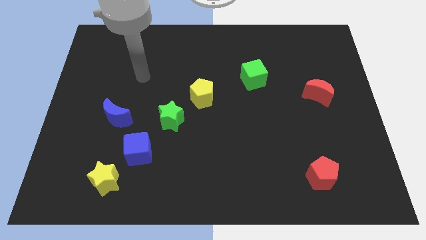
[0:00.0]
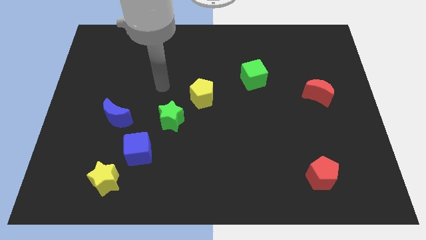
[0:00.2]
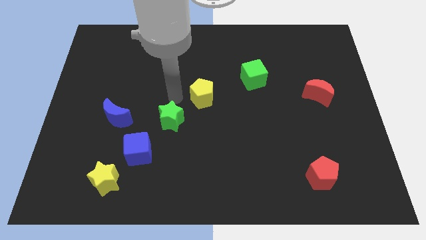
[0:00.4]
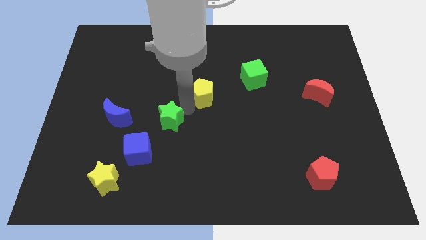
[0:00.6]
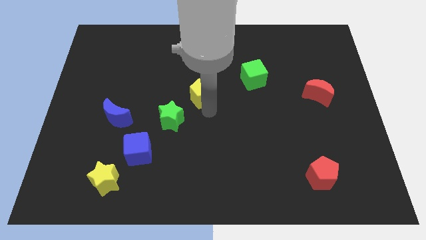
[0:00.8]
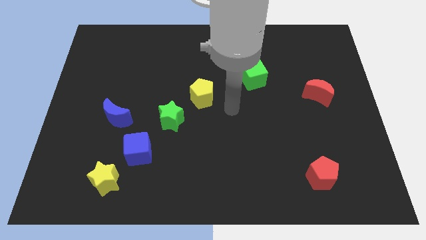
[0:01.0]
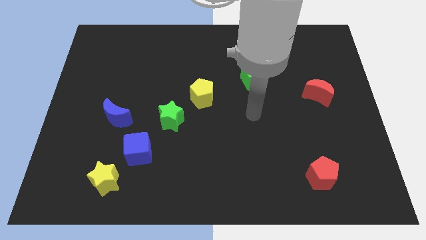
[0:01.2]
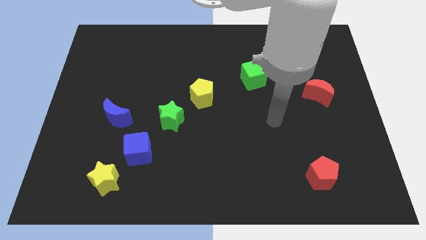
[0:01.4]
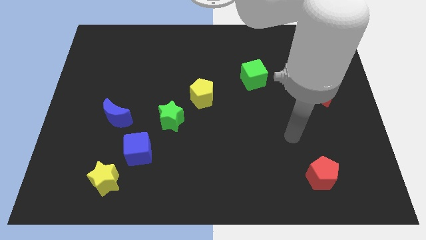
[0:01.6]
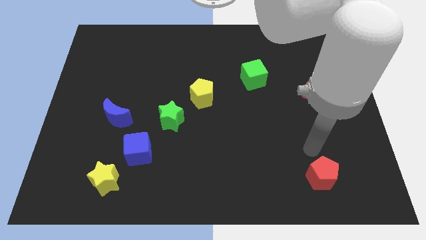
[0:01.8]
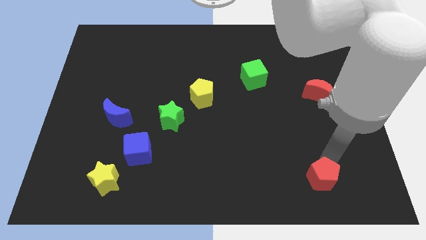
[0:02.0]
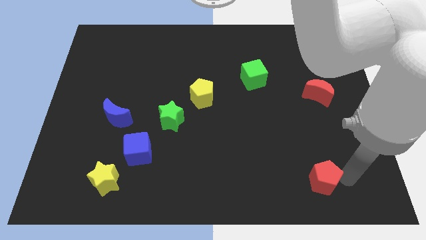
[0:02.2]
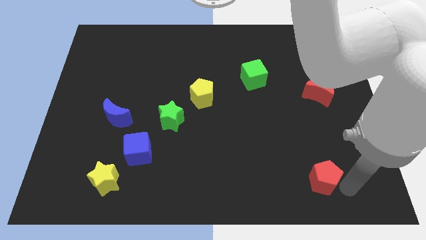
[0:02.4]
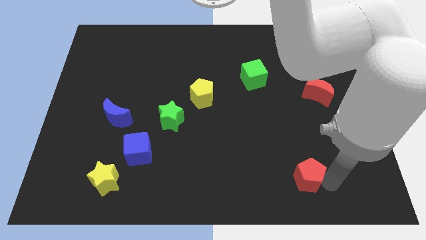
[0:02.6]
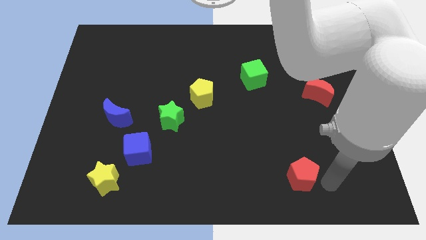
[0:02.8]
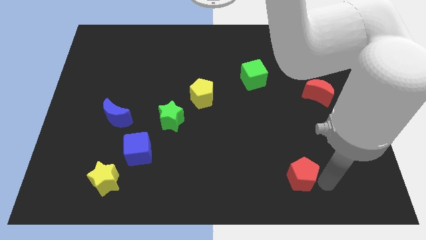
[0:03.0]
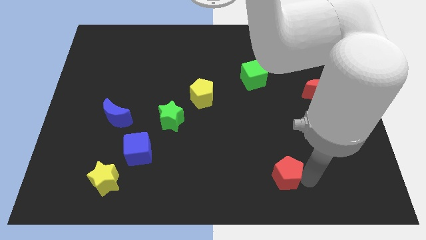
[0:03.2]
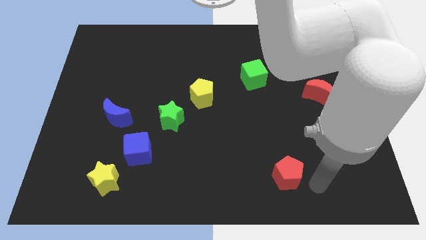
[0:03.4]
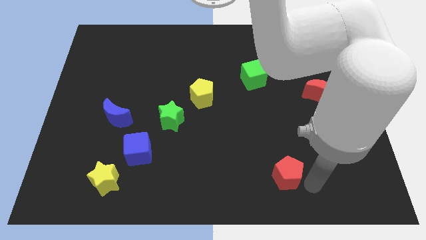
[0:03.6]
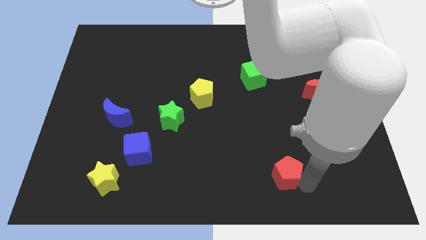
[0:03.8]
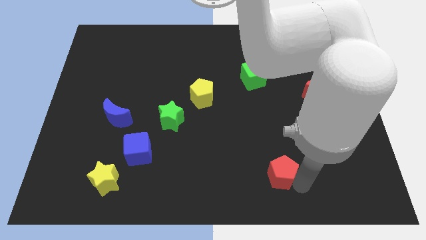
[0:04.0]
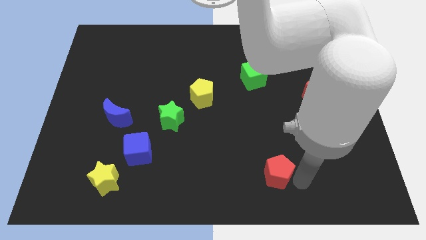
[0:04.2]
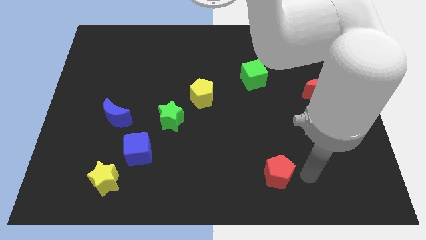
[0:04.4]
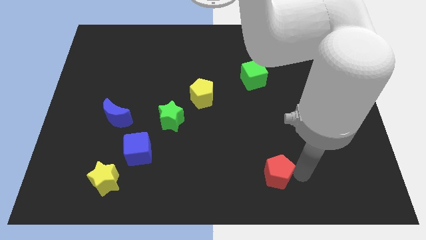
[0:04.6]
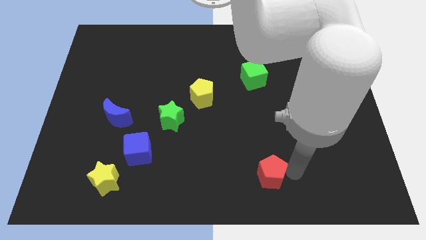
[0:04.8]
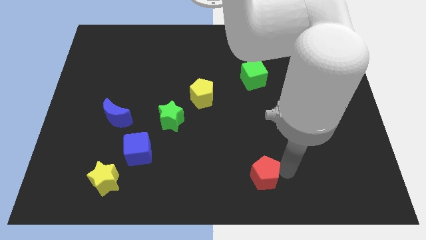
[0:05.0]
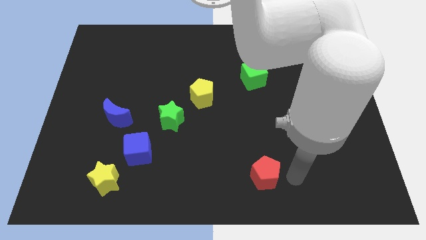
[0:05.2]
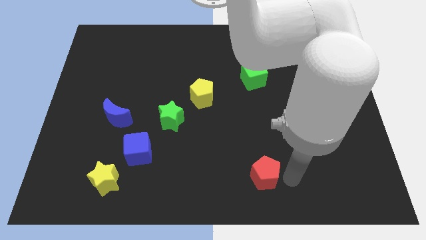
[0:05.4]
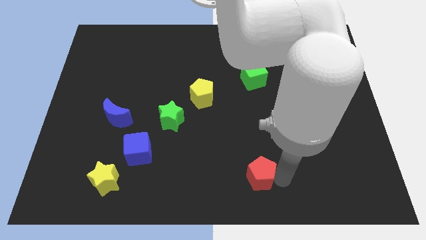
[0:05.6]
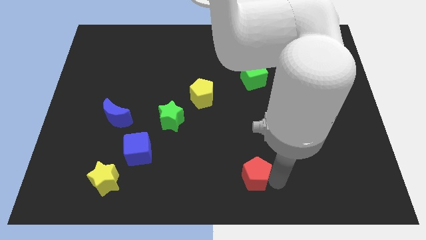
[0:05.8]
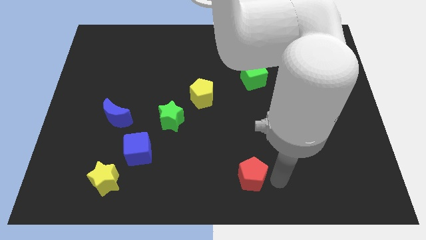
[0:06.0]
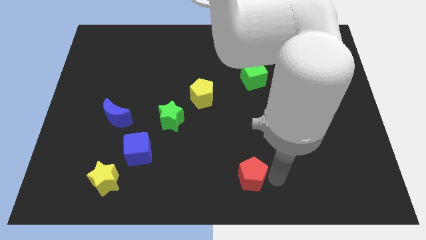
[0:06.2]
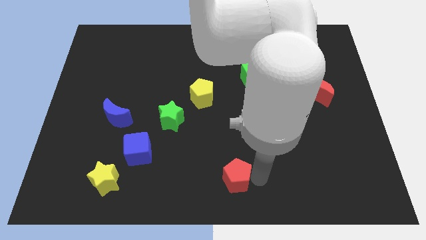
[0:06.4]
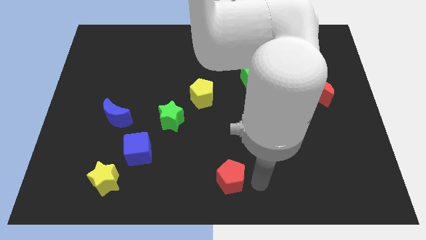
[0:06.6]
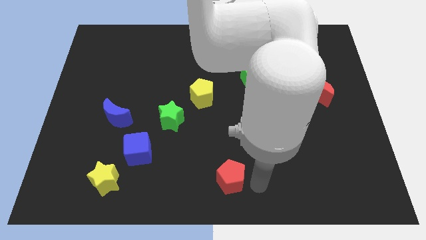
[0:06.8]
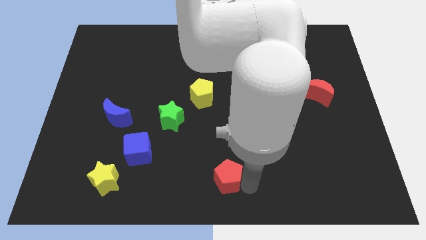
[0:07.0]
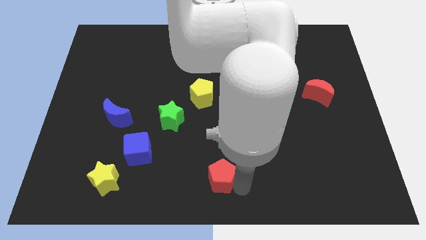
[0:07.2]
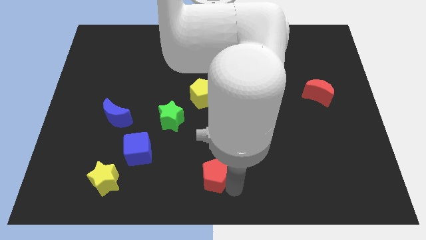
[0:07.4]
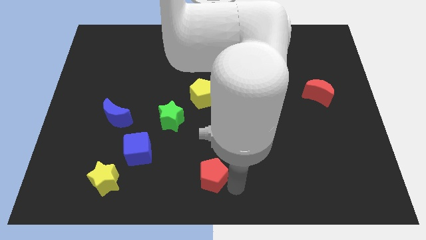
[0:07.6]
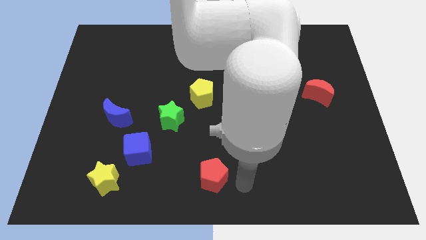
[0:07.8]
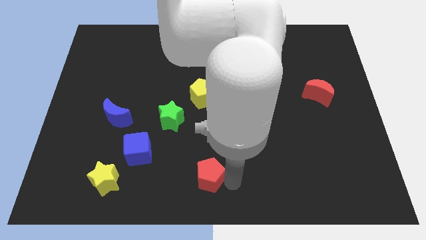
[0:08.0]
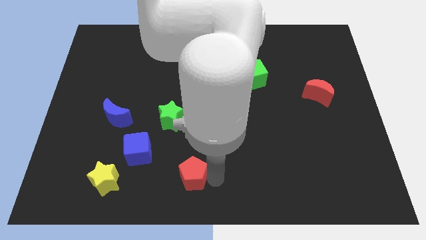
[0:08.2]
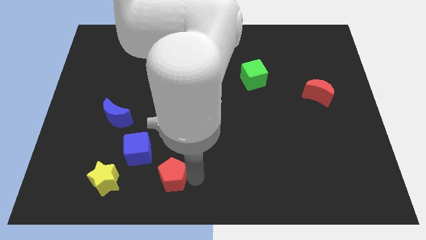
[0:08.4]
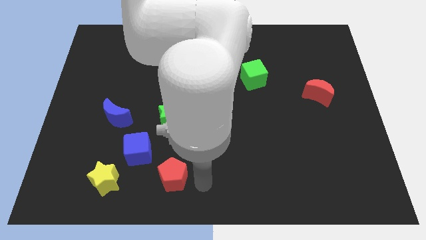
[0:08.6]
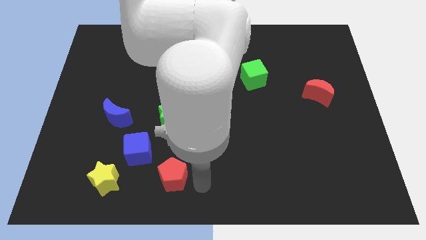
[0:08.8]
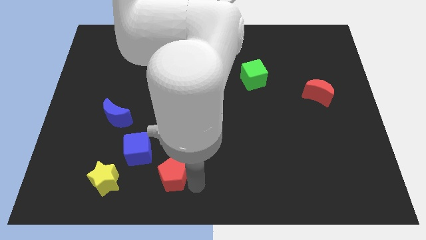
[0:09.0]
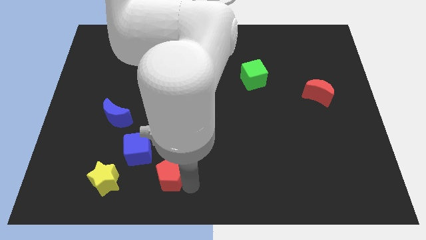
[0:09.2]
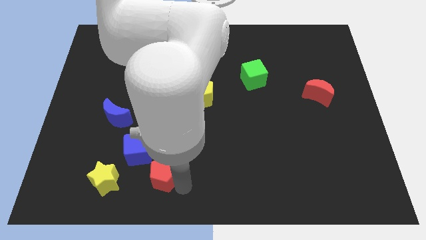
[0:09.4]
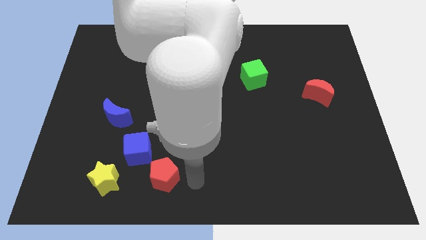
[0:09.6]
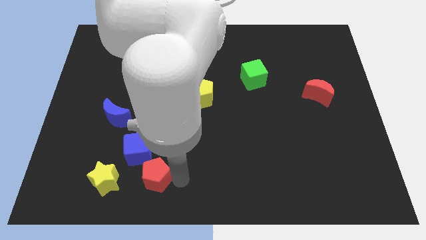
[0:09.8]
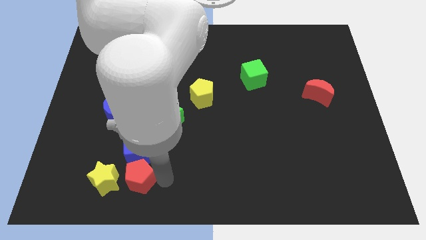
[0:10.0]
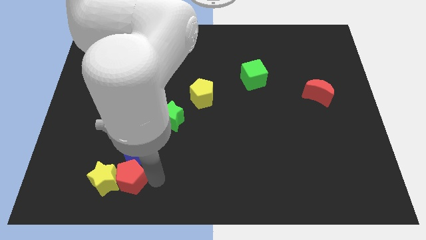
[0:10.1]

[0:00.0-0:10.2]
put the red pentagon towards the yellow star

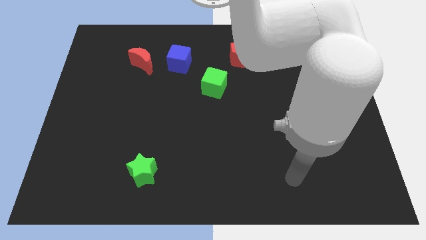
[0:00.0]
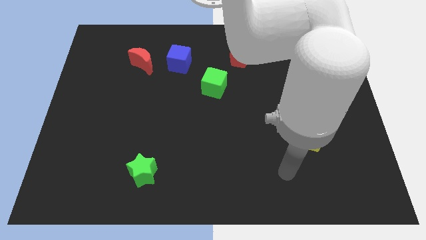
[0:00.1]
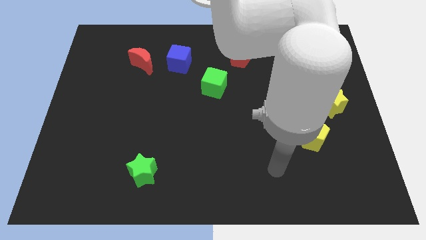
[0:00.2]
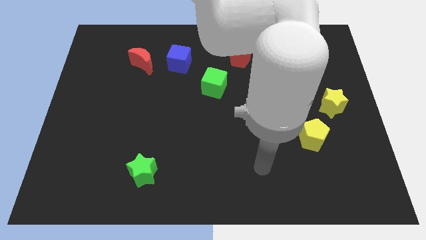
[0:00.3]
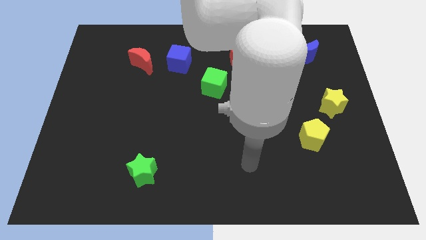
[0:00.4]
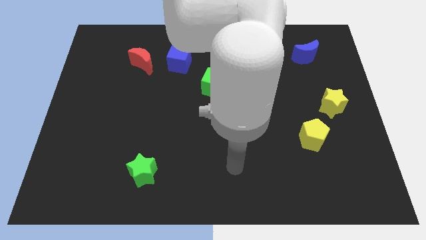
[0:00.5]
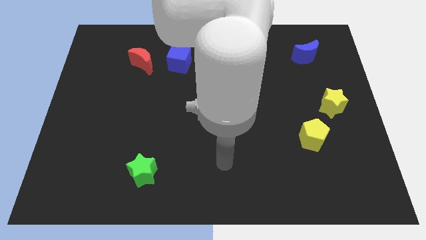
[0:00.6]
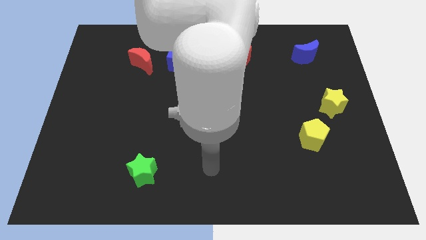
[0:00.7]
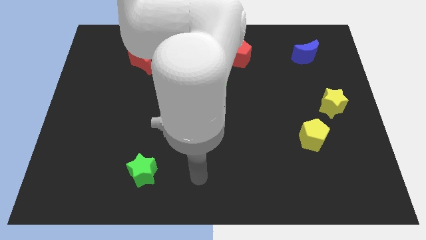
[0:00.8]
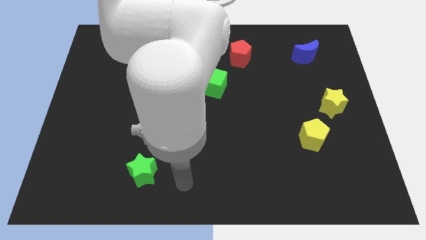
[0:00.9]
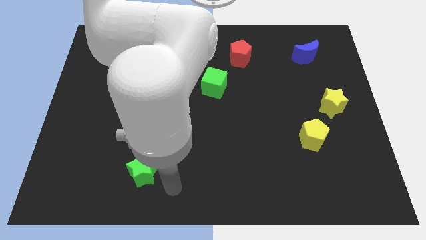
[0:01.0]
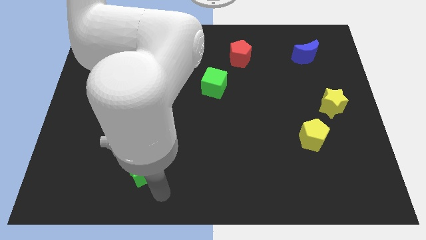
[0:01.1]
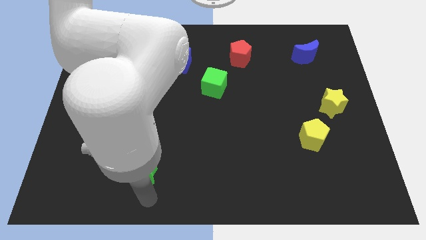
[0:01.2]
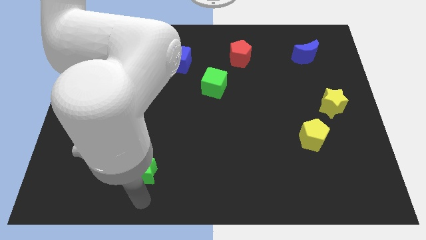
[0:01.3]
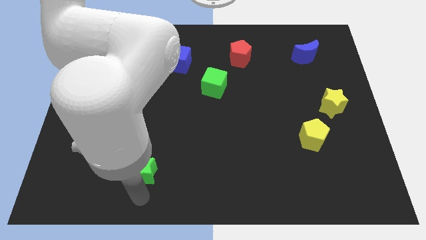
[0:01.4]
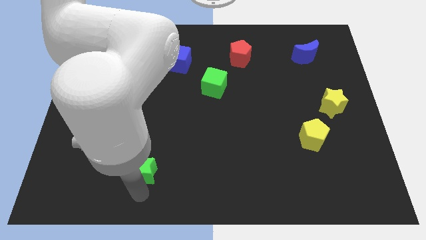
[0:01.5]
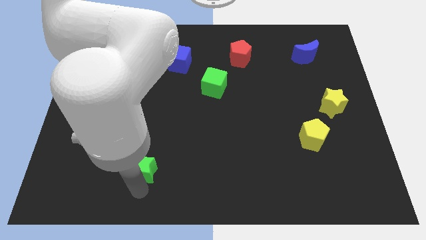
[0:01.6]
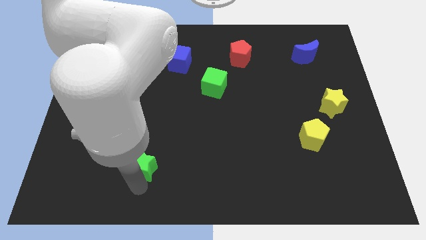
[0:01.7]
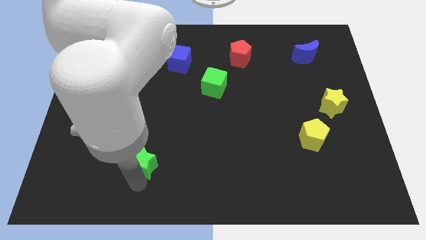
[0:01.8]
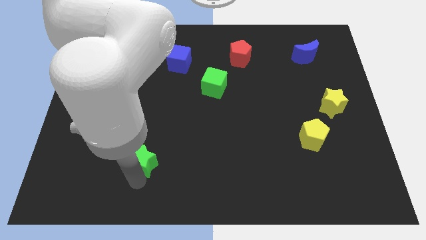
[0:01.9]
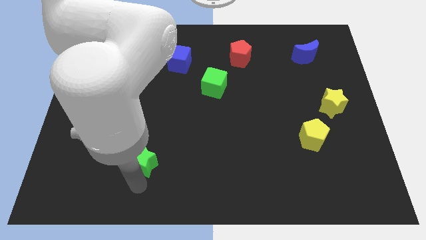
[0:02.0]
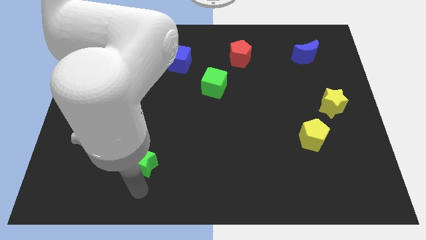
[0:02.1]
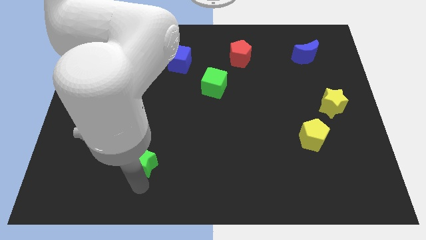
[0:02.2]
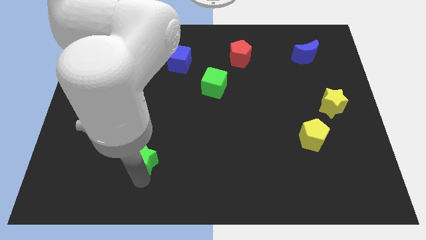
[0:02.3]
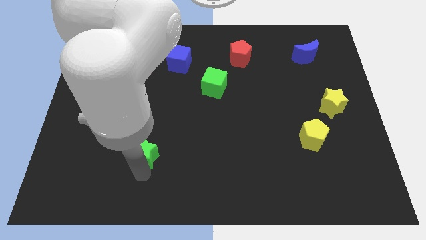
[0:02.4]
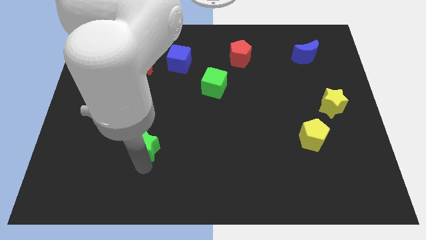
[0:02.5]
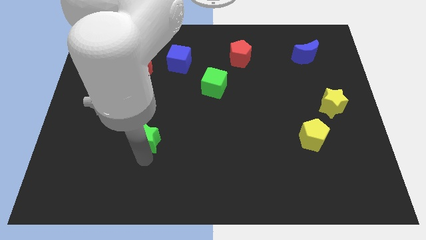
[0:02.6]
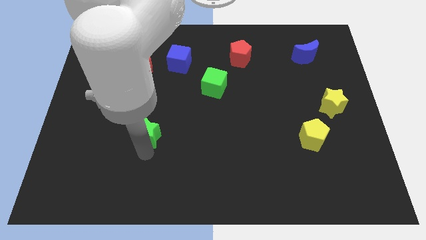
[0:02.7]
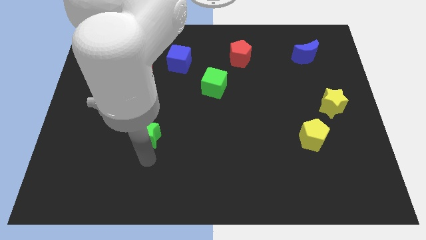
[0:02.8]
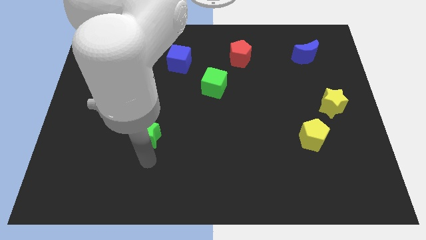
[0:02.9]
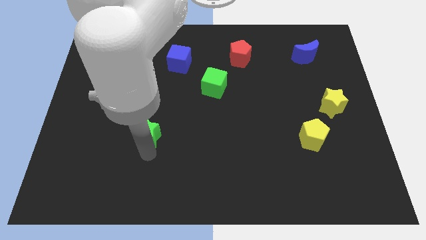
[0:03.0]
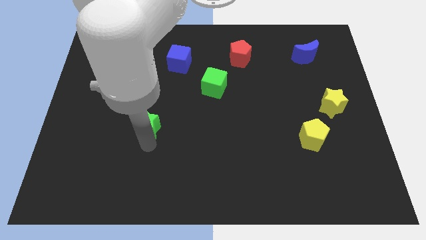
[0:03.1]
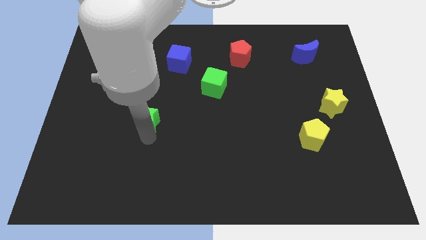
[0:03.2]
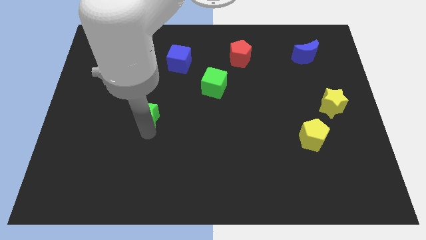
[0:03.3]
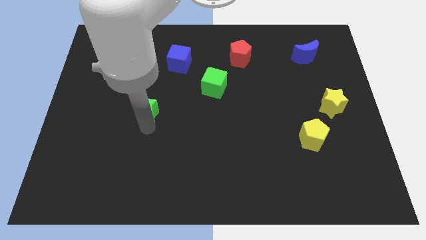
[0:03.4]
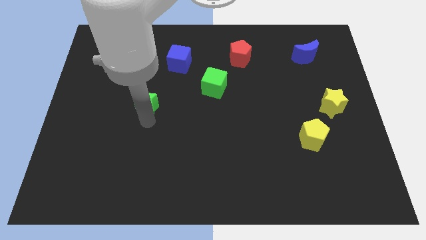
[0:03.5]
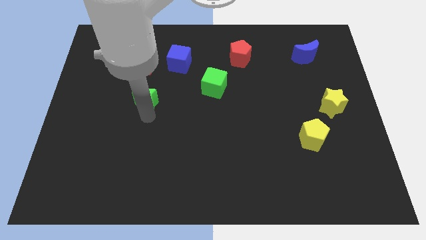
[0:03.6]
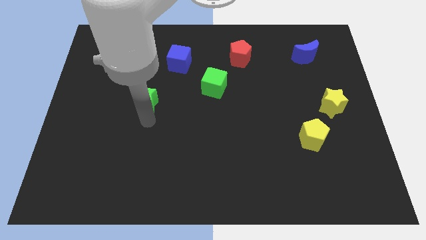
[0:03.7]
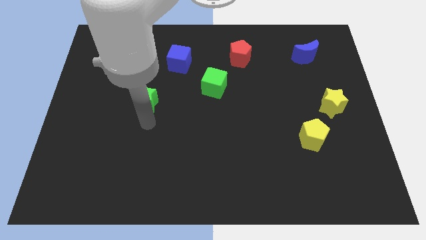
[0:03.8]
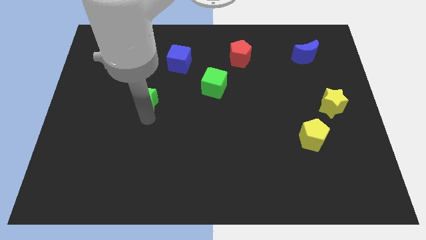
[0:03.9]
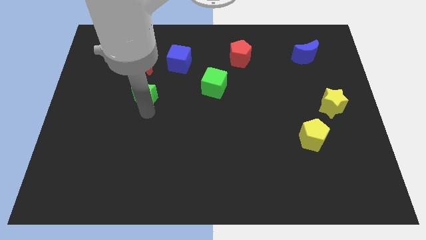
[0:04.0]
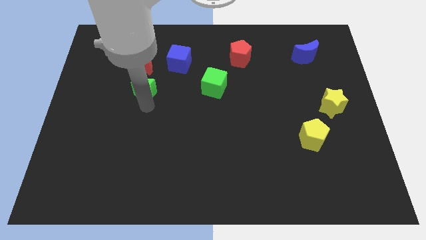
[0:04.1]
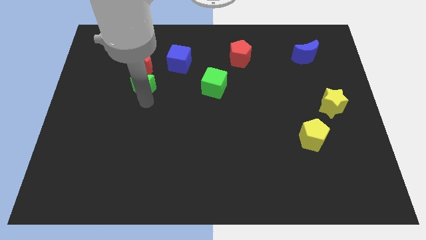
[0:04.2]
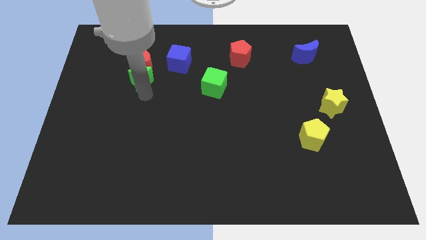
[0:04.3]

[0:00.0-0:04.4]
move the green star close to the red moon
